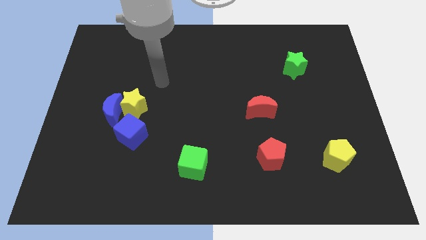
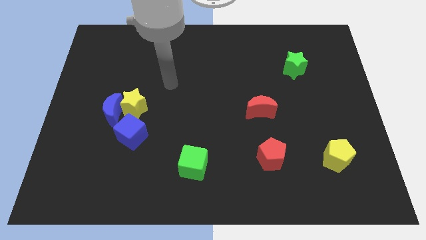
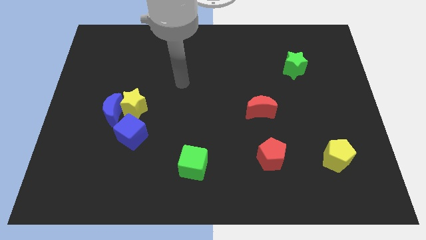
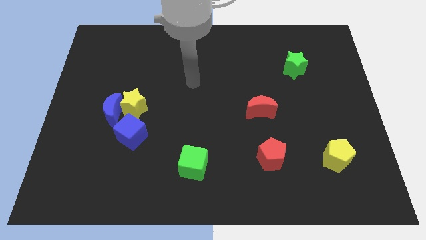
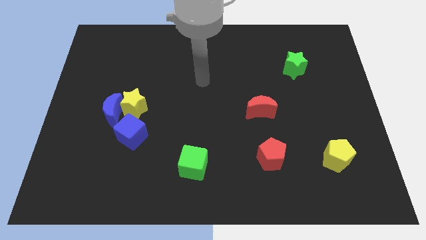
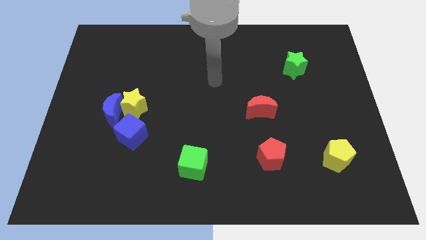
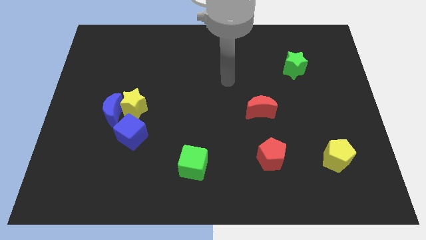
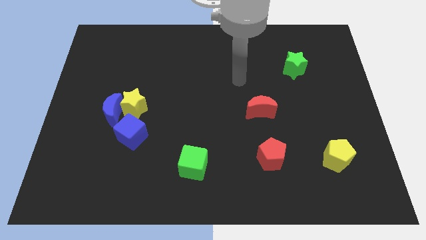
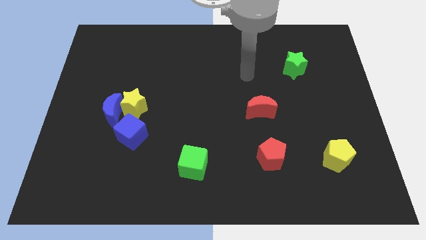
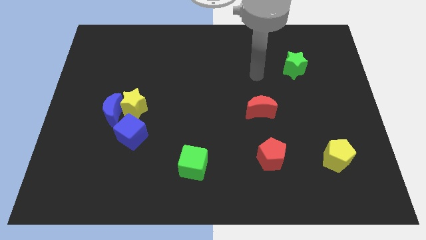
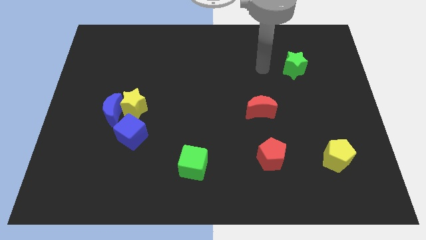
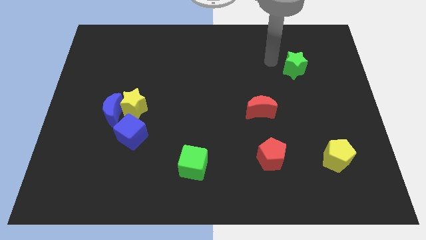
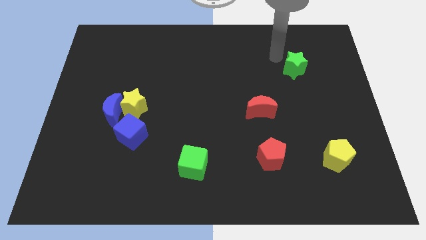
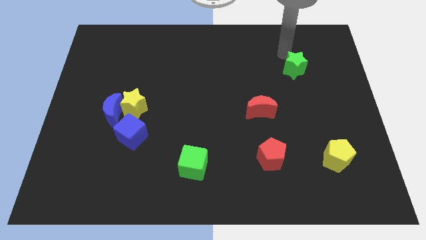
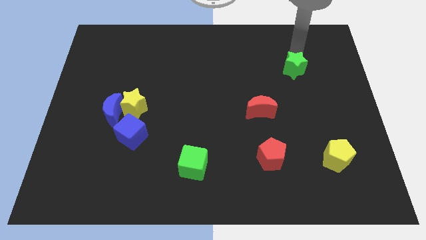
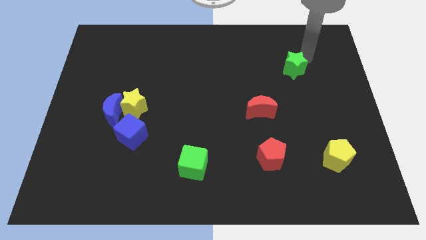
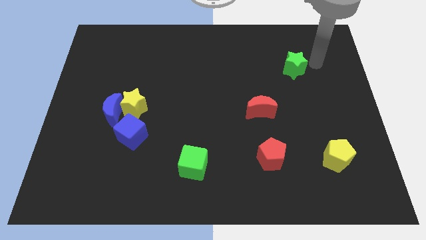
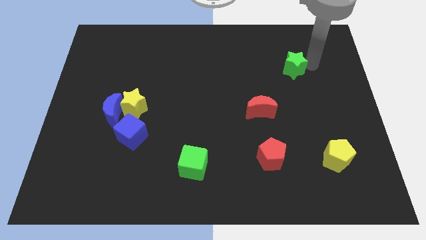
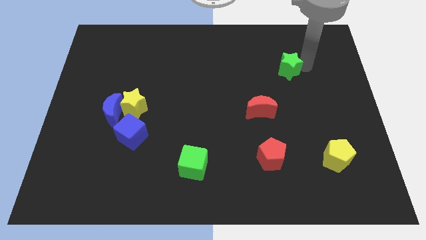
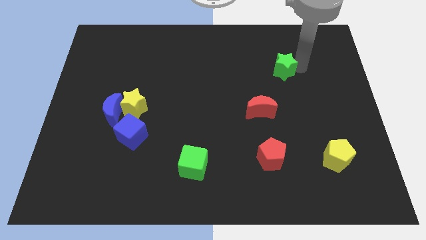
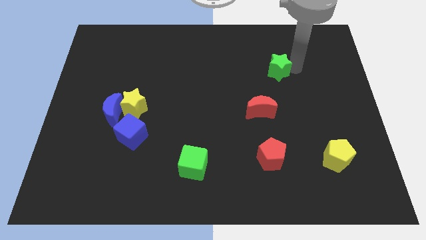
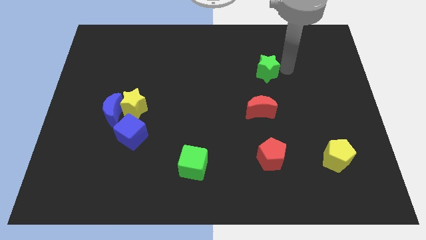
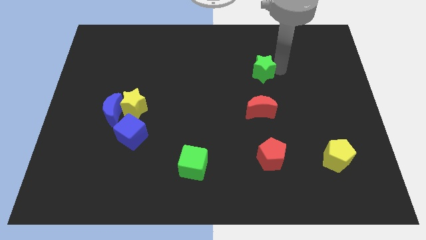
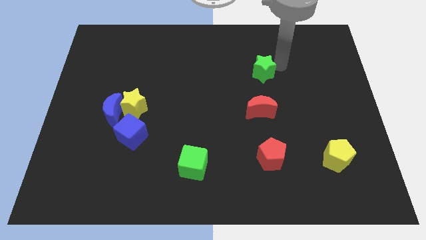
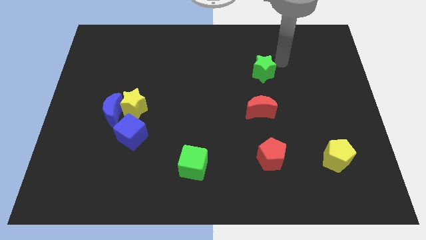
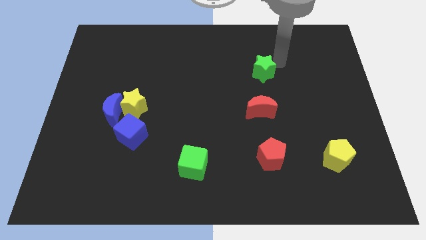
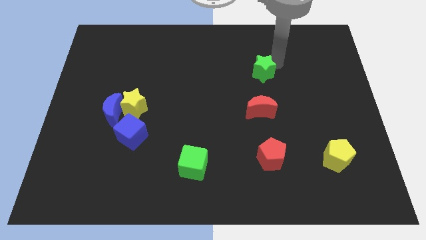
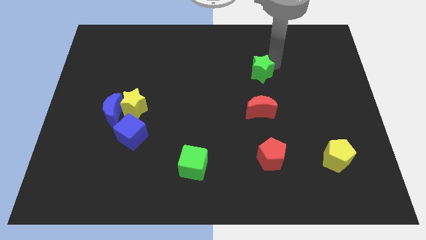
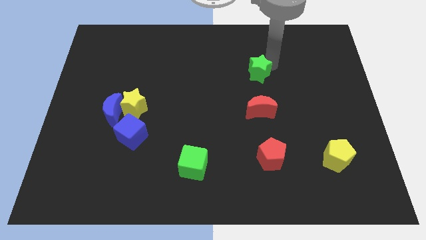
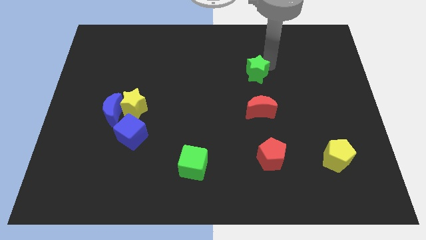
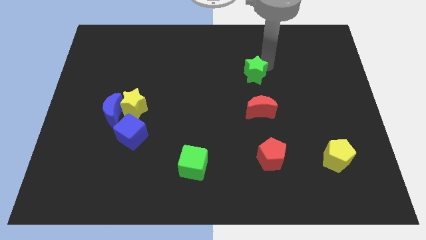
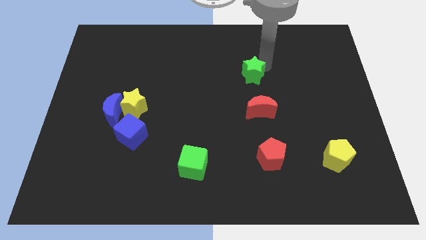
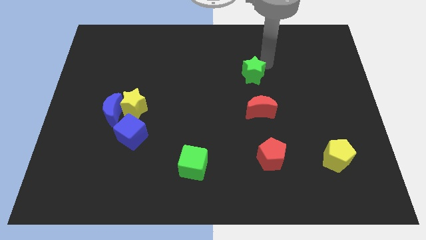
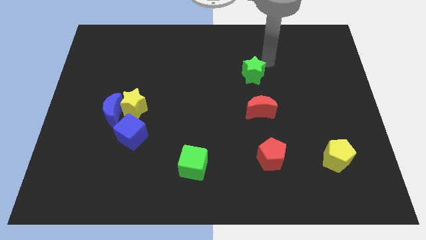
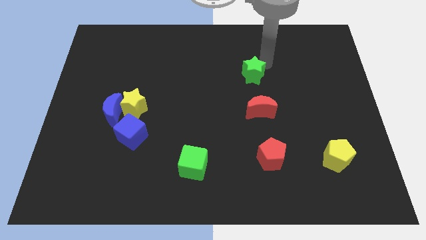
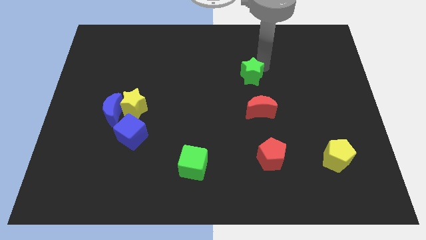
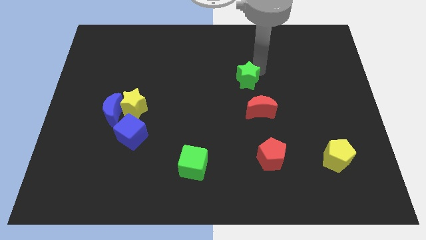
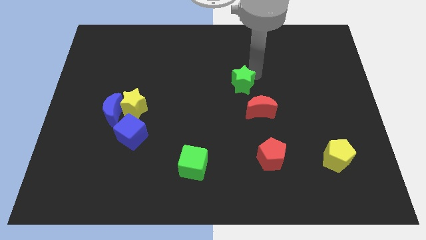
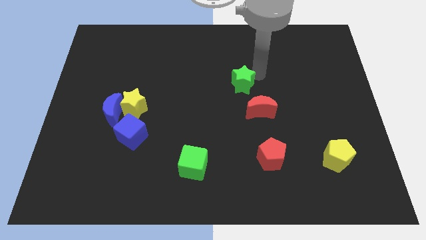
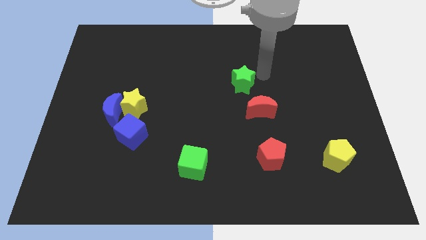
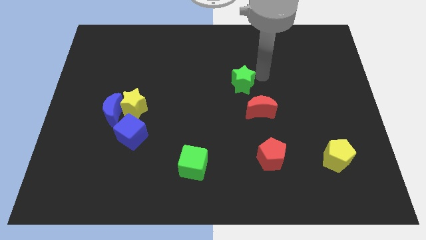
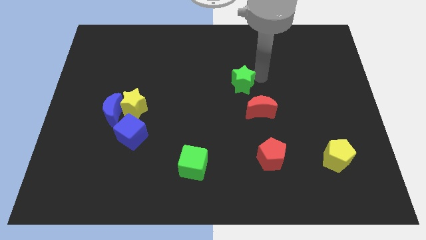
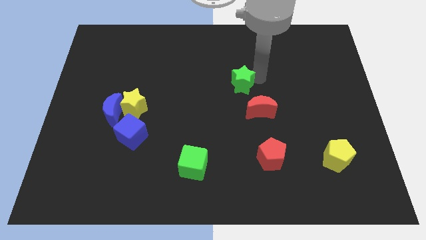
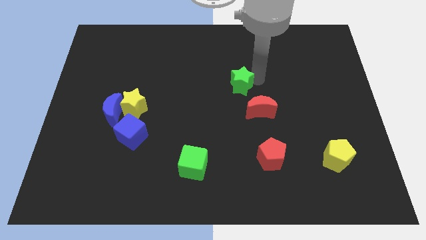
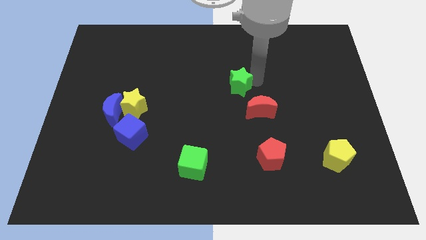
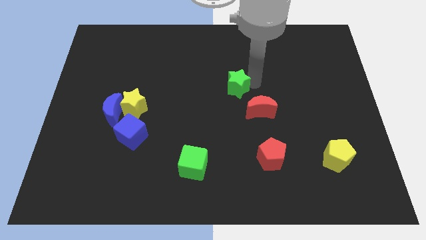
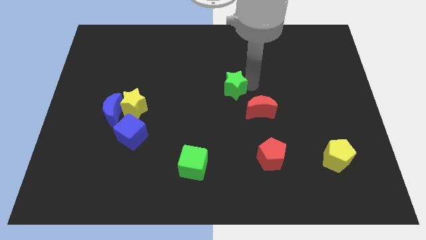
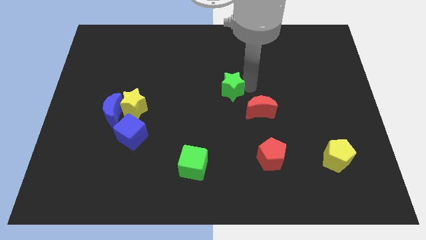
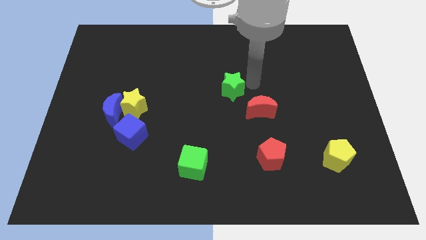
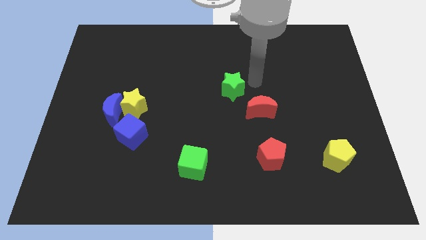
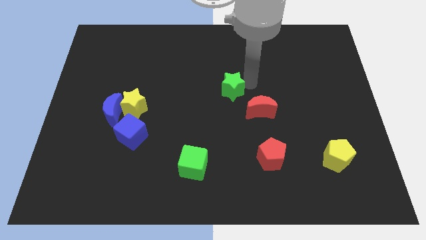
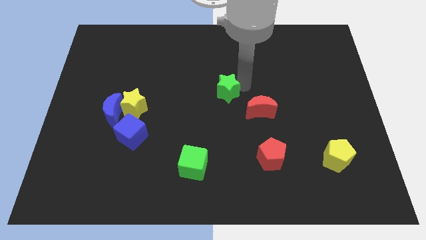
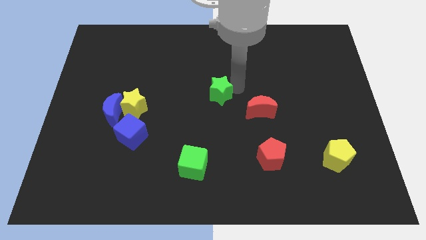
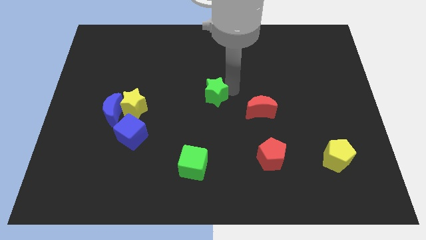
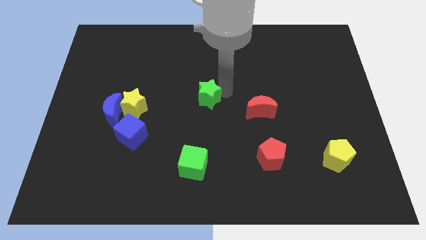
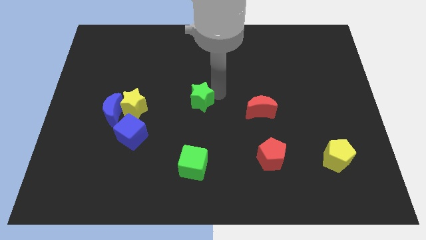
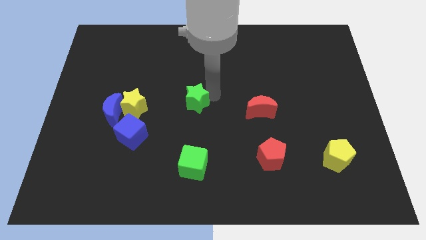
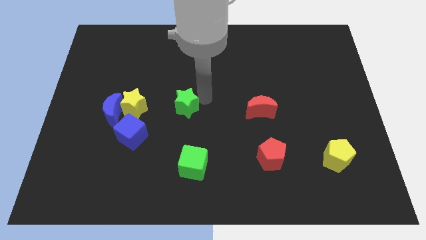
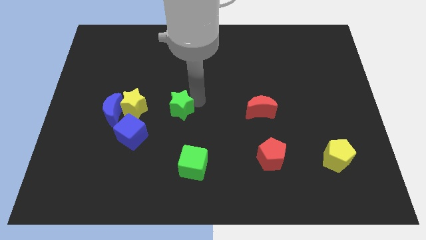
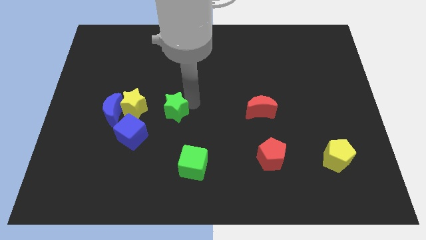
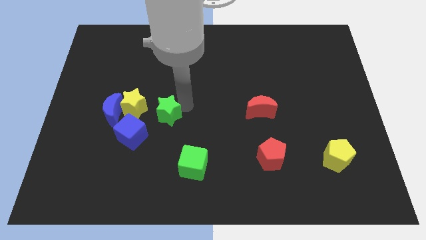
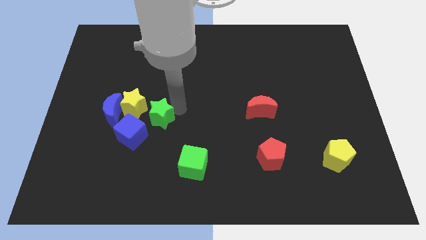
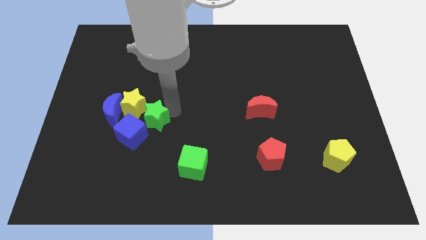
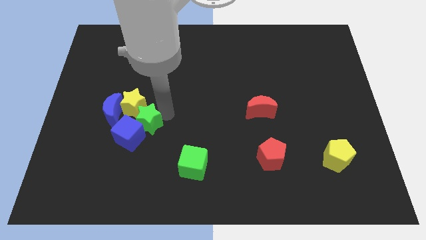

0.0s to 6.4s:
slide the green star next to the blue cube

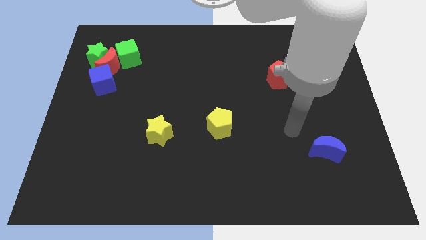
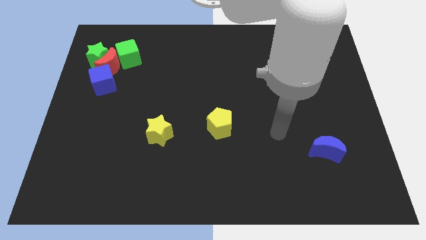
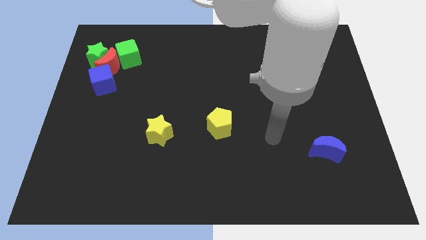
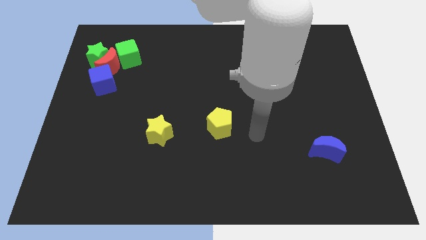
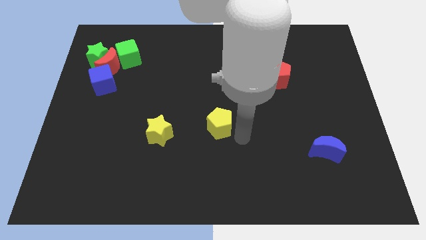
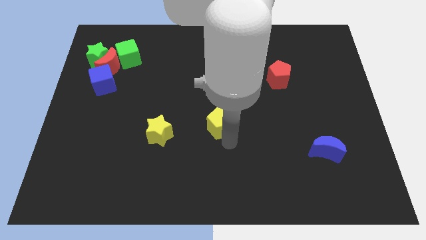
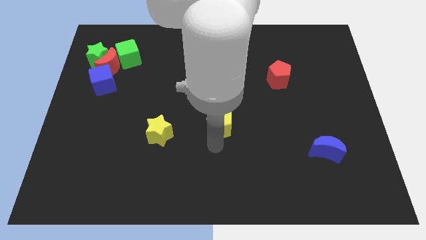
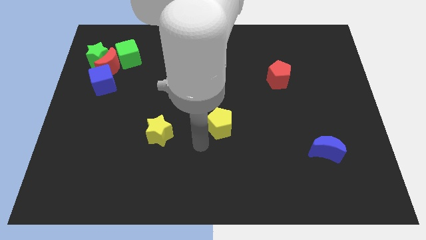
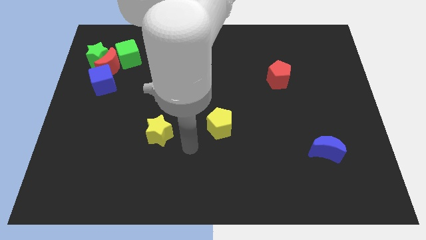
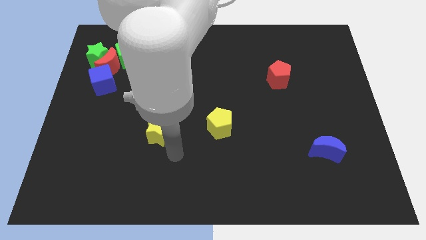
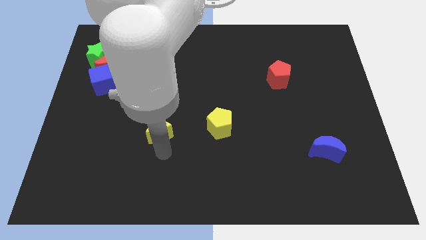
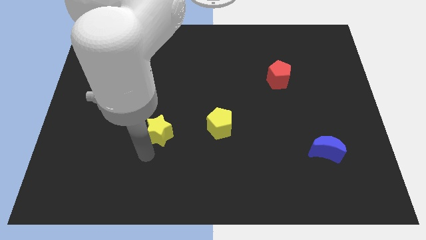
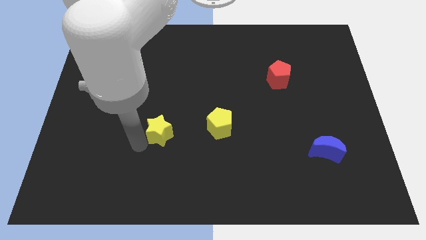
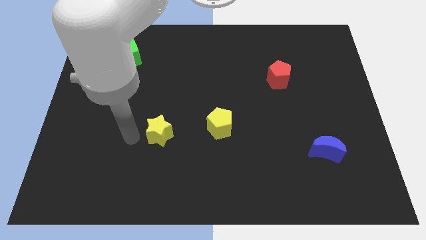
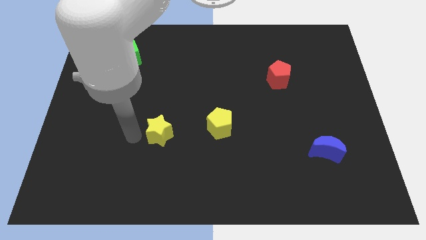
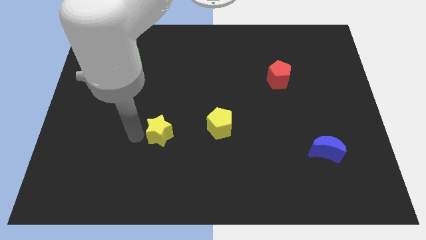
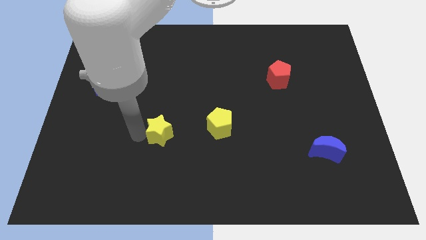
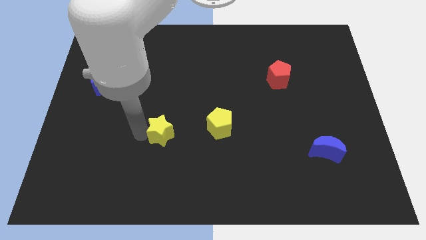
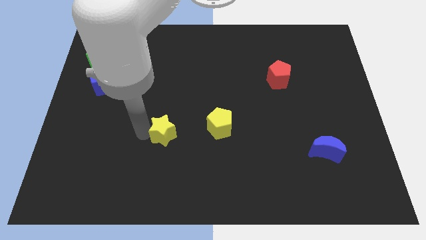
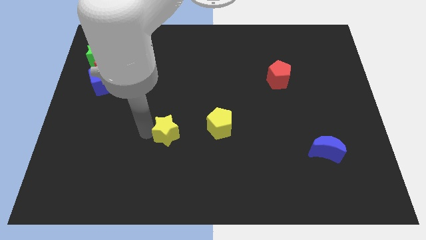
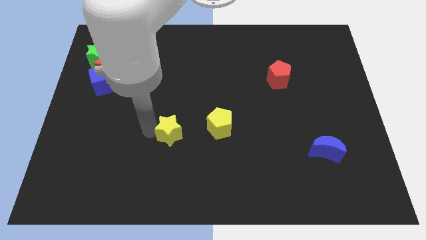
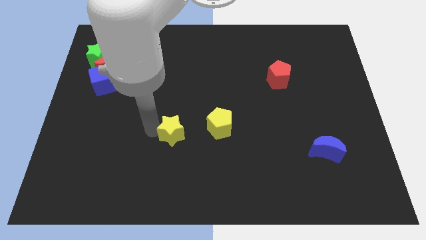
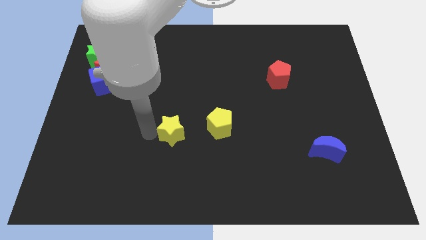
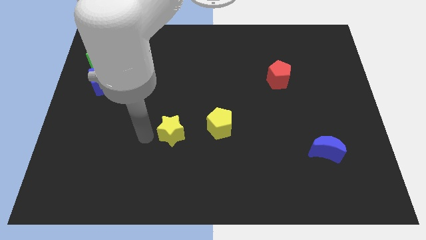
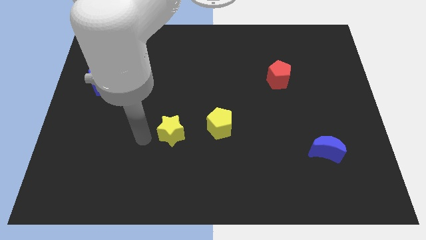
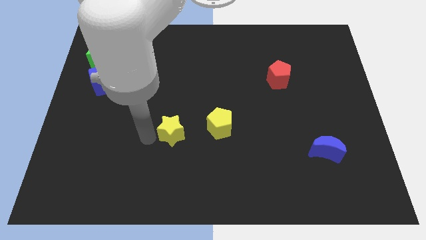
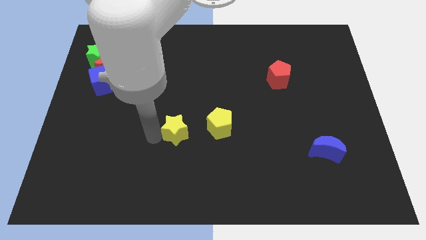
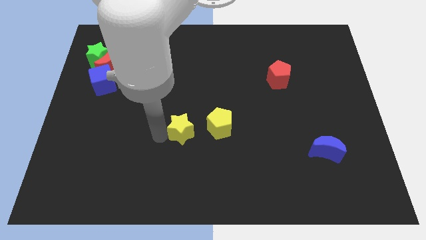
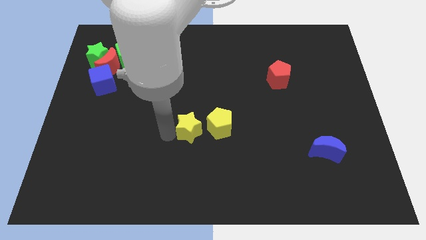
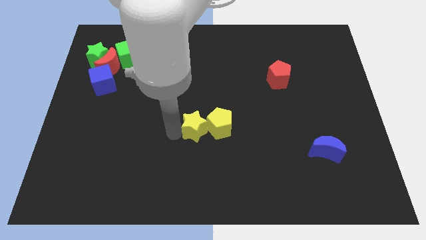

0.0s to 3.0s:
slide the yellow star towards the yellow pentagon
